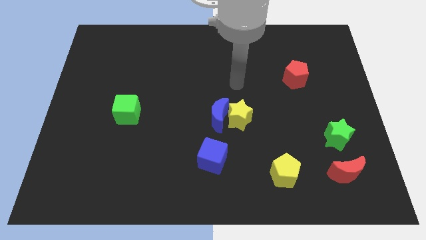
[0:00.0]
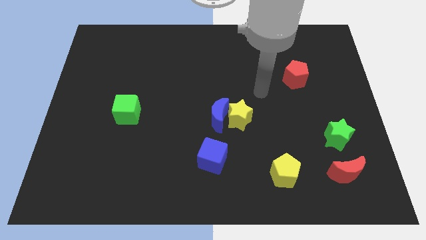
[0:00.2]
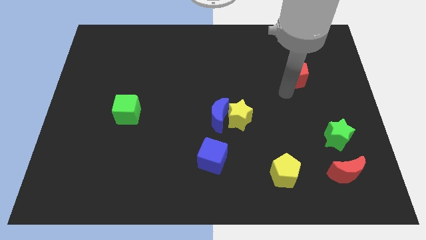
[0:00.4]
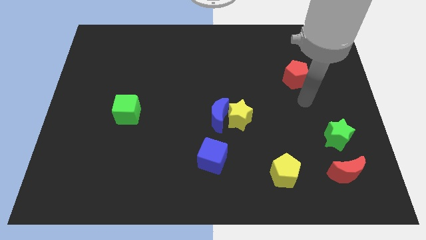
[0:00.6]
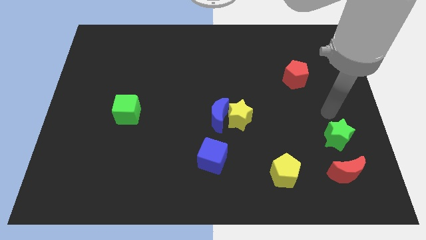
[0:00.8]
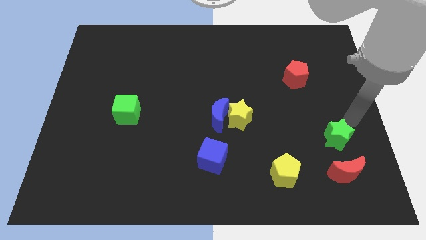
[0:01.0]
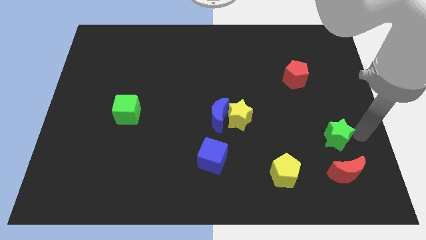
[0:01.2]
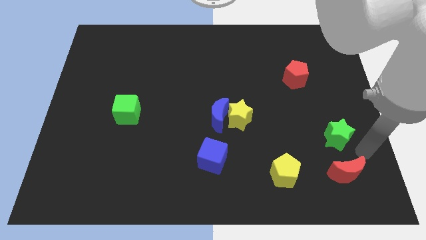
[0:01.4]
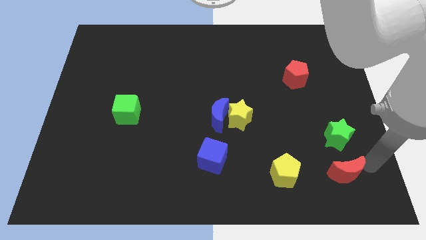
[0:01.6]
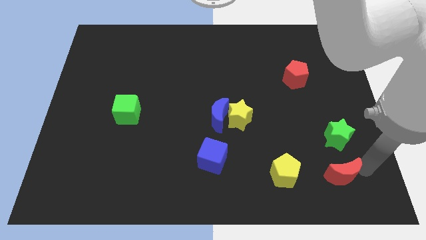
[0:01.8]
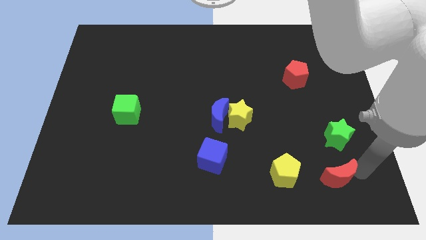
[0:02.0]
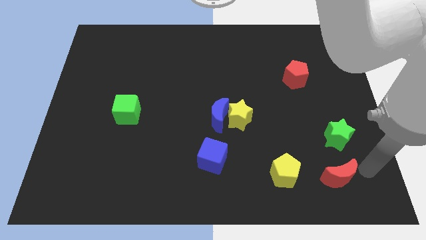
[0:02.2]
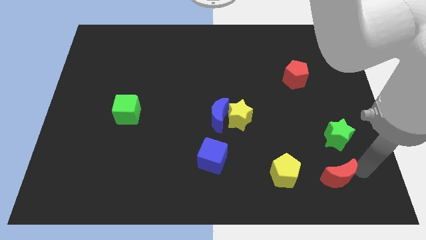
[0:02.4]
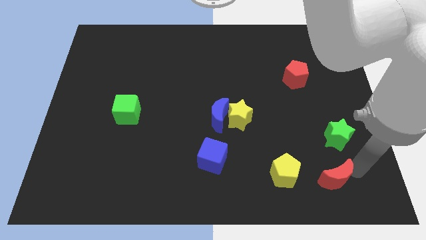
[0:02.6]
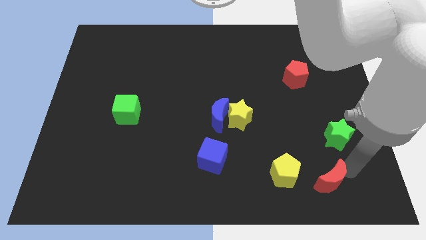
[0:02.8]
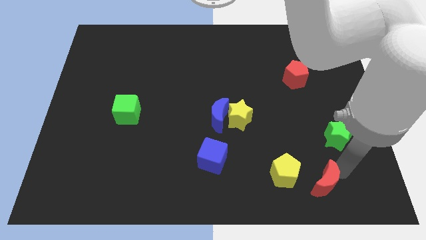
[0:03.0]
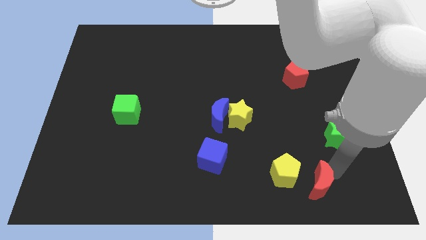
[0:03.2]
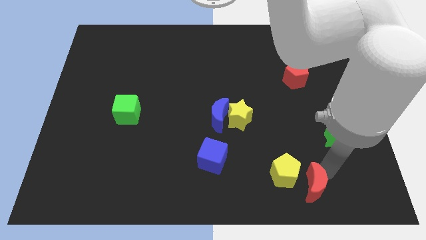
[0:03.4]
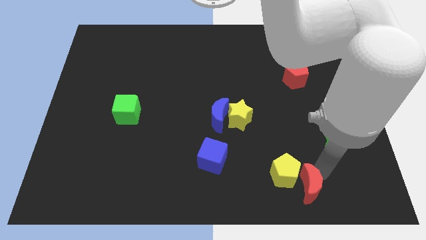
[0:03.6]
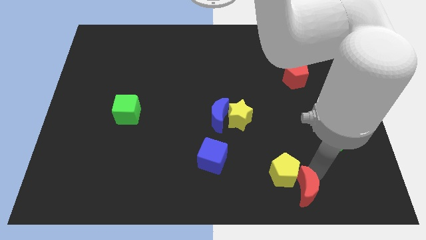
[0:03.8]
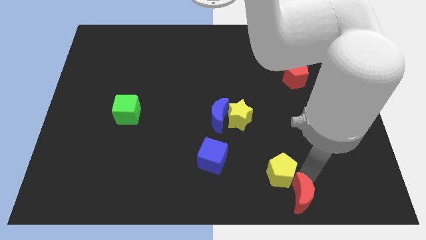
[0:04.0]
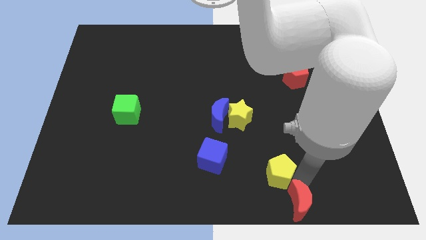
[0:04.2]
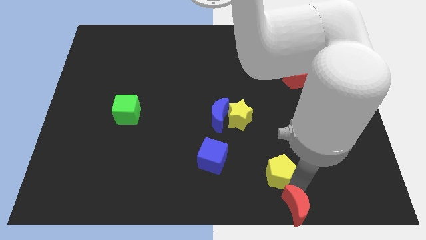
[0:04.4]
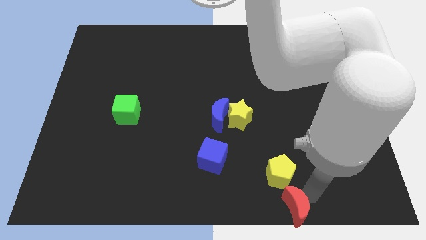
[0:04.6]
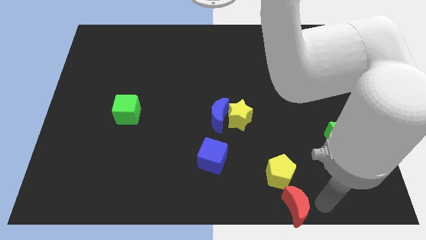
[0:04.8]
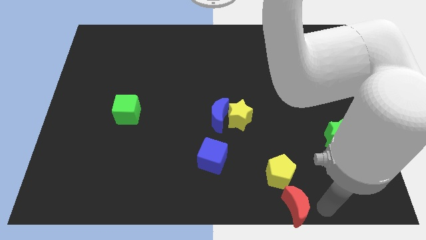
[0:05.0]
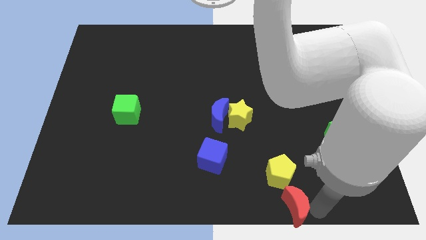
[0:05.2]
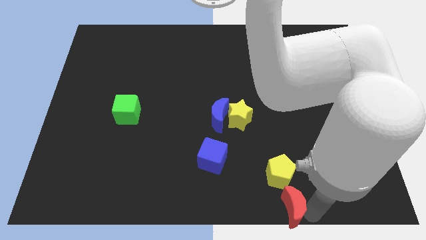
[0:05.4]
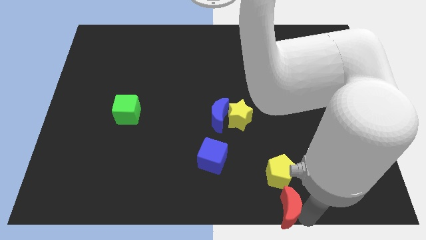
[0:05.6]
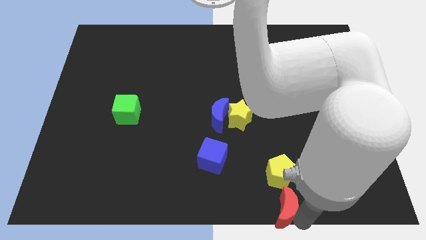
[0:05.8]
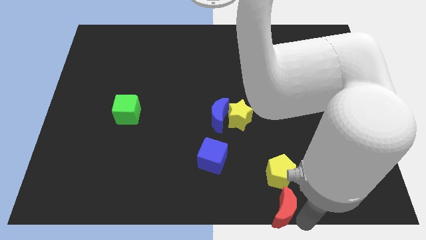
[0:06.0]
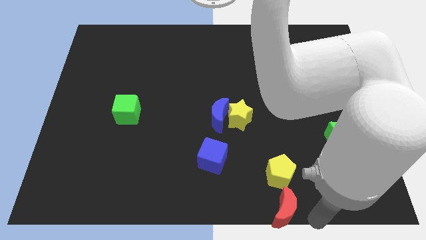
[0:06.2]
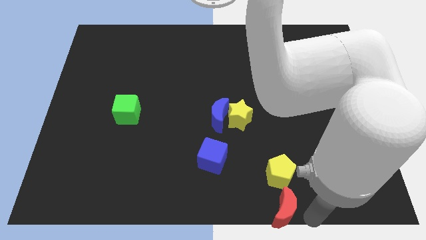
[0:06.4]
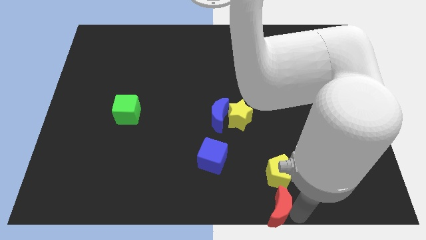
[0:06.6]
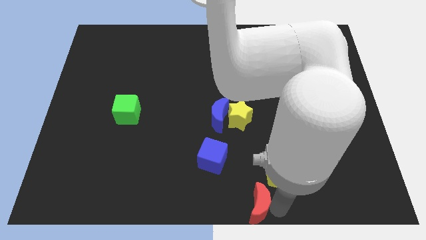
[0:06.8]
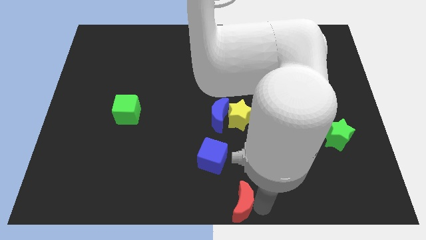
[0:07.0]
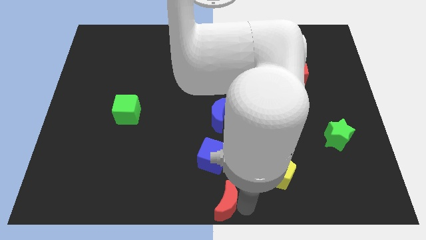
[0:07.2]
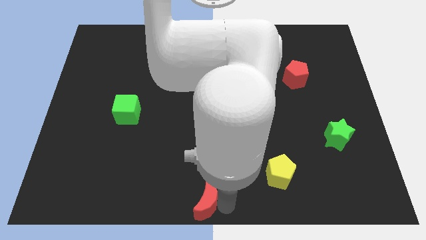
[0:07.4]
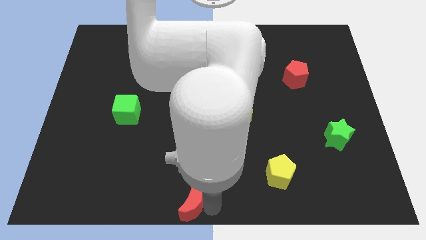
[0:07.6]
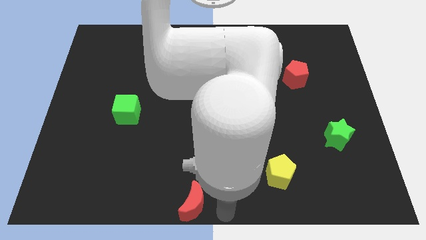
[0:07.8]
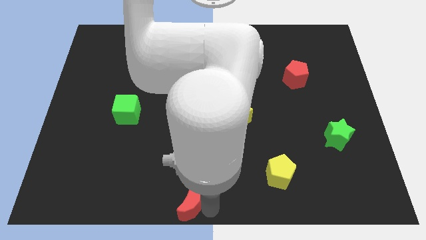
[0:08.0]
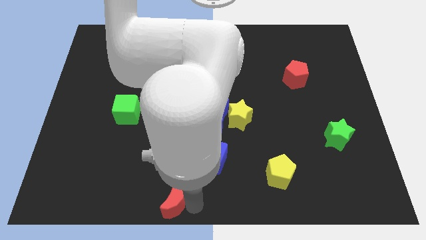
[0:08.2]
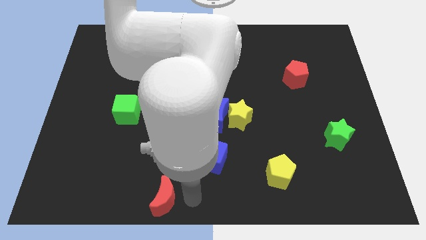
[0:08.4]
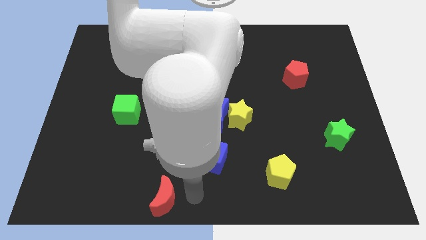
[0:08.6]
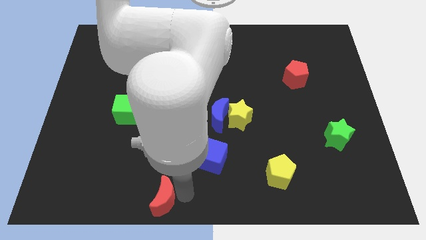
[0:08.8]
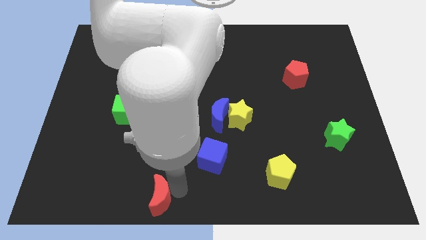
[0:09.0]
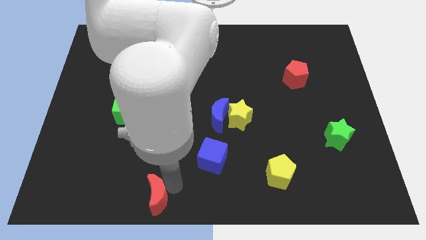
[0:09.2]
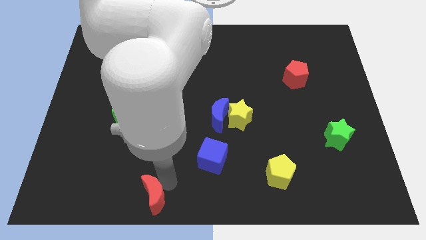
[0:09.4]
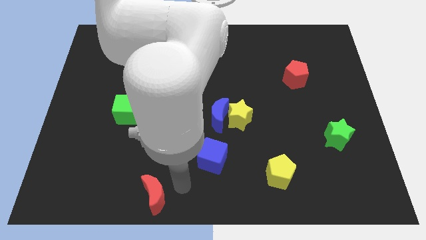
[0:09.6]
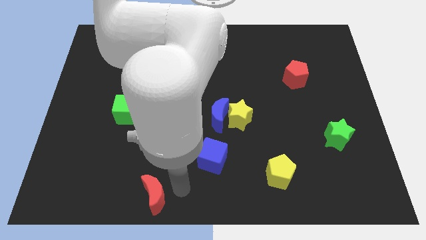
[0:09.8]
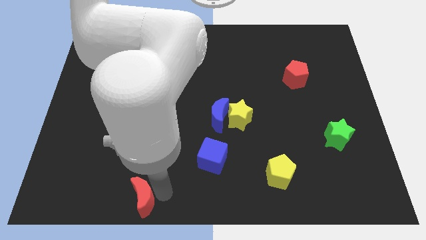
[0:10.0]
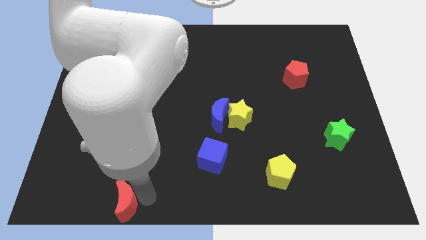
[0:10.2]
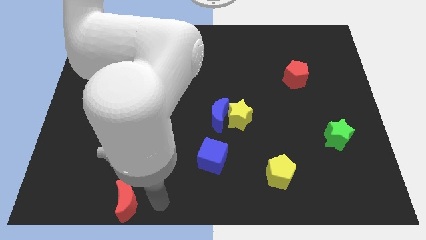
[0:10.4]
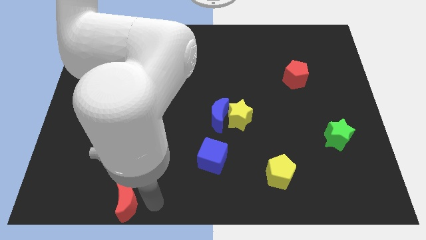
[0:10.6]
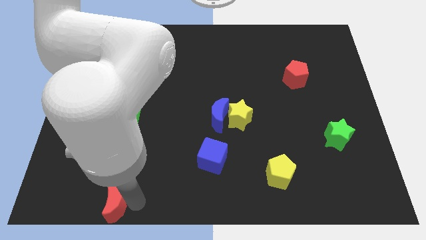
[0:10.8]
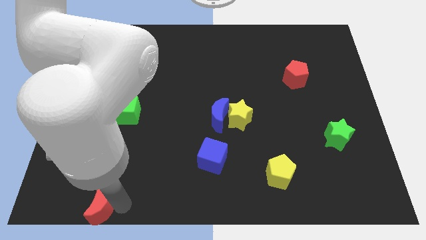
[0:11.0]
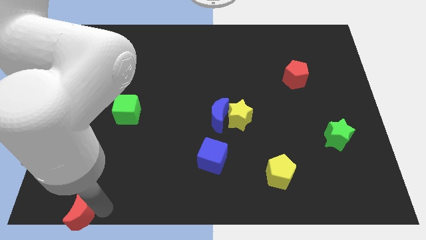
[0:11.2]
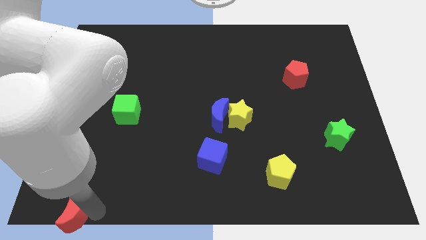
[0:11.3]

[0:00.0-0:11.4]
move the red moon to the bottom left of the board
